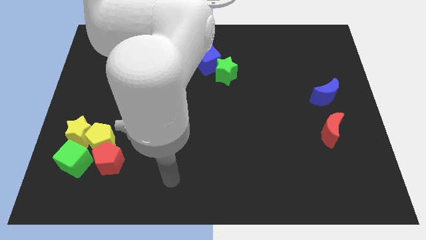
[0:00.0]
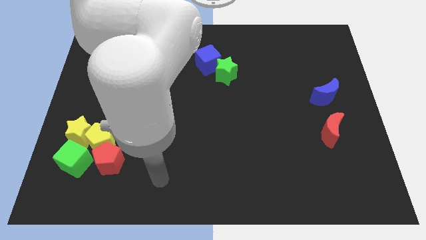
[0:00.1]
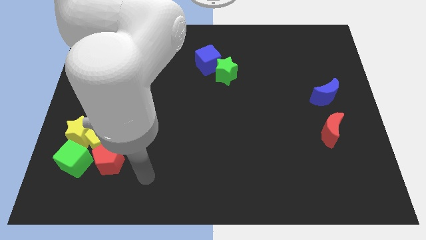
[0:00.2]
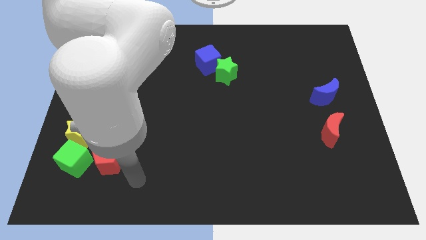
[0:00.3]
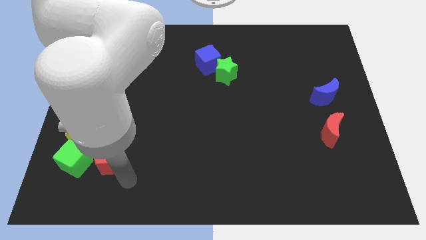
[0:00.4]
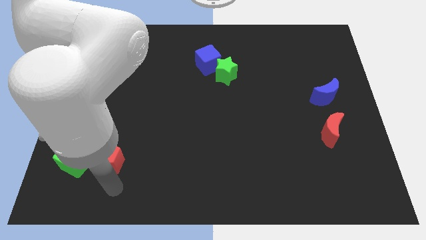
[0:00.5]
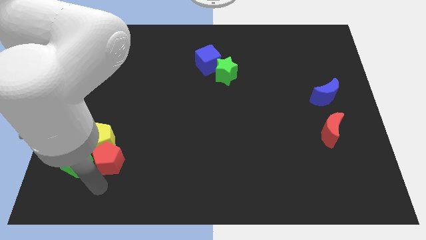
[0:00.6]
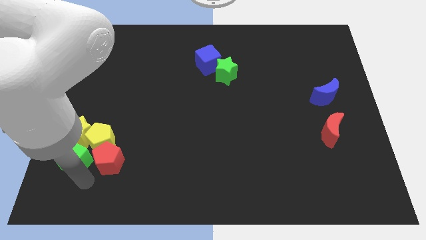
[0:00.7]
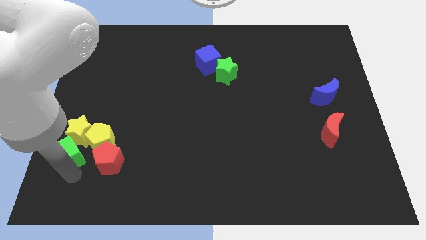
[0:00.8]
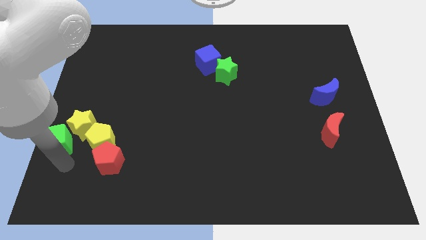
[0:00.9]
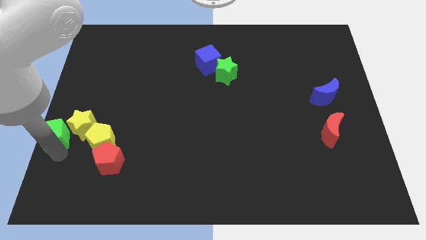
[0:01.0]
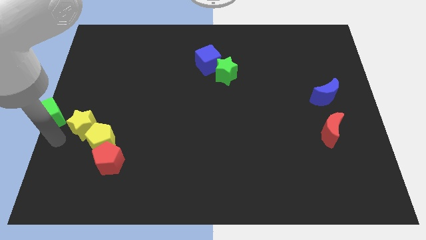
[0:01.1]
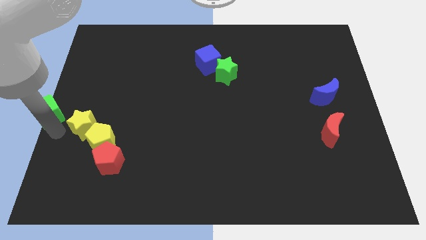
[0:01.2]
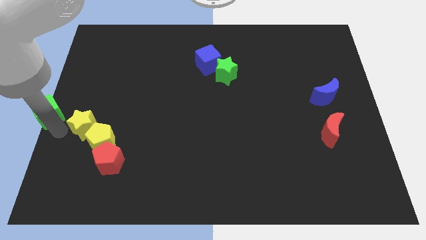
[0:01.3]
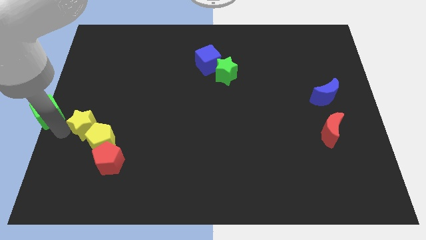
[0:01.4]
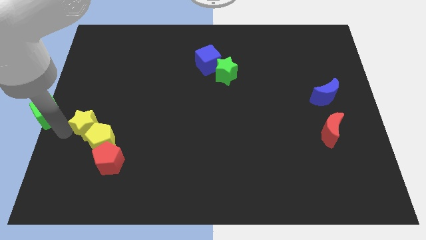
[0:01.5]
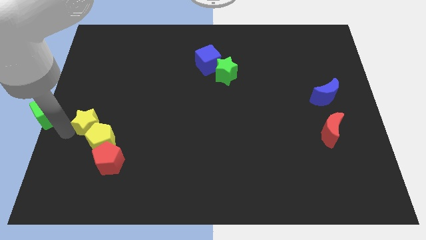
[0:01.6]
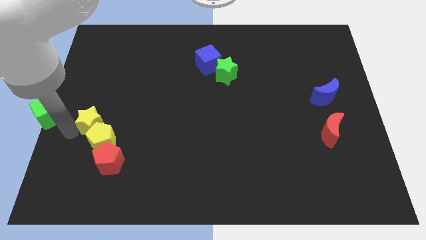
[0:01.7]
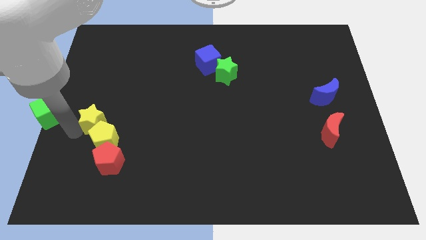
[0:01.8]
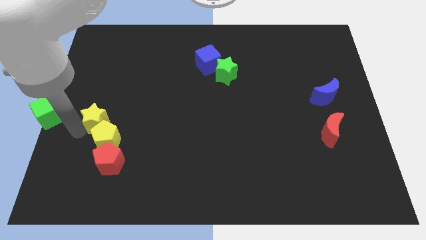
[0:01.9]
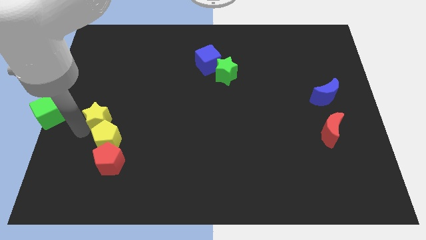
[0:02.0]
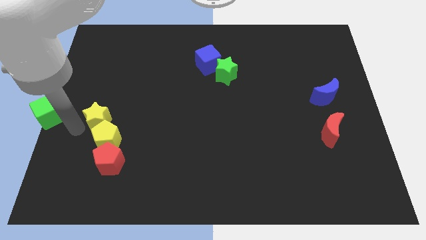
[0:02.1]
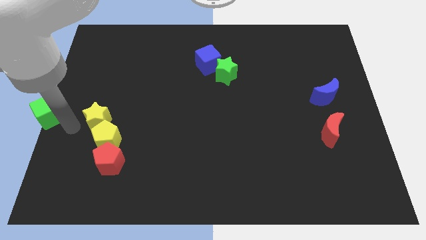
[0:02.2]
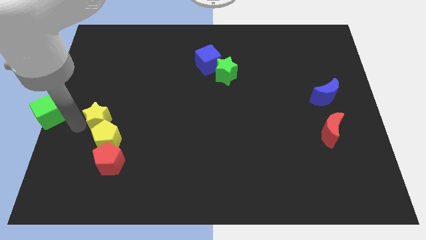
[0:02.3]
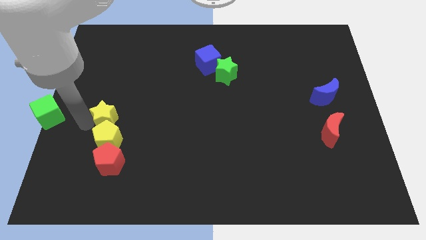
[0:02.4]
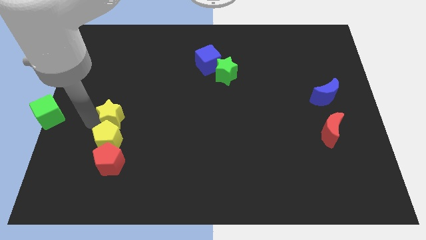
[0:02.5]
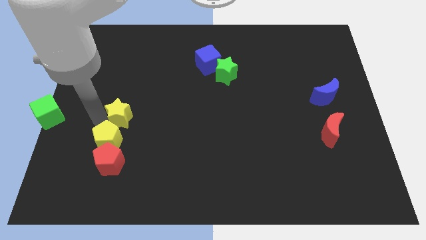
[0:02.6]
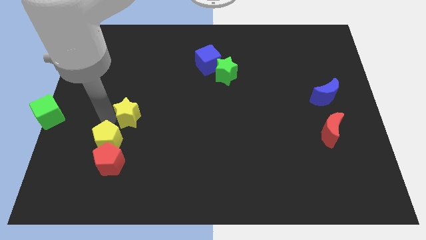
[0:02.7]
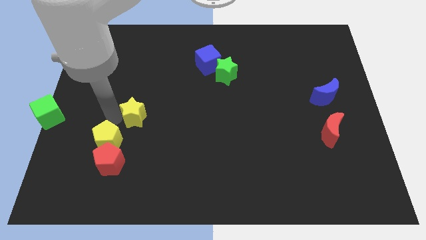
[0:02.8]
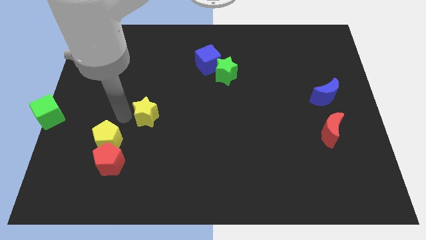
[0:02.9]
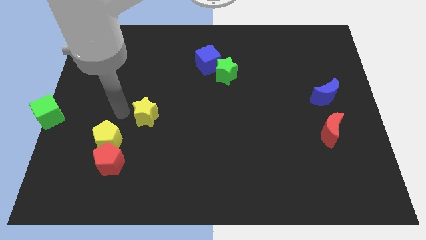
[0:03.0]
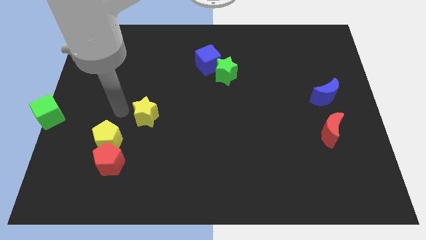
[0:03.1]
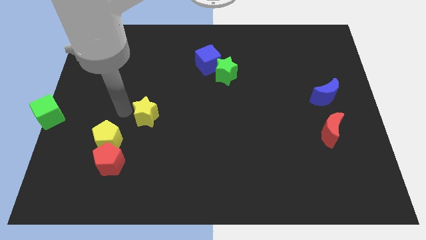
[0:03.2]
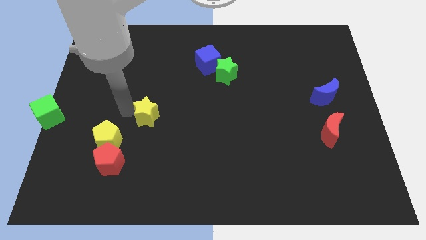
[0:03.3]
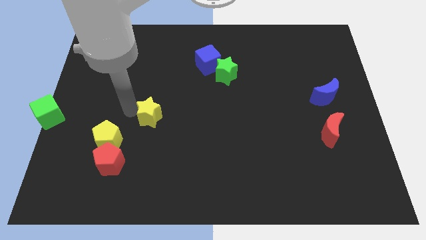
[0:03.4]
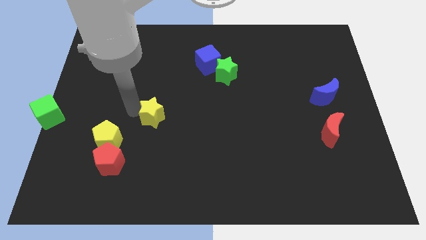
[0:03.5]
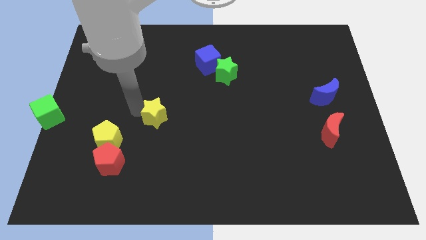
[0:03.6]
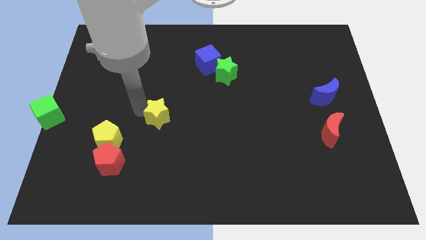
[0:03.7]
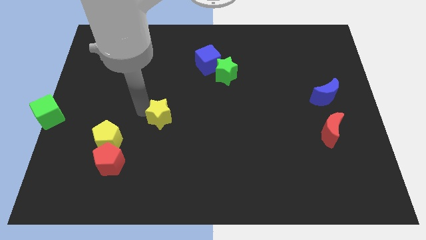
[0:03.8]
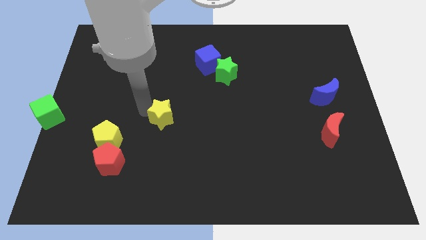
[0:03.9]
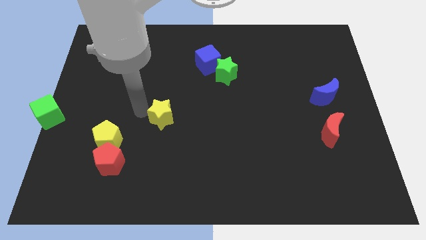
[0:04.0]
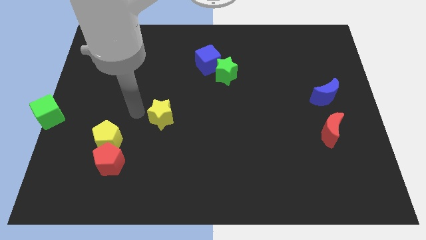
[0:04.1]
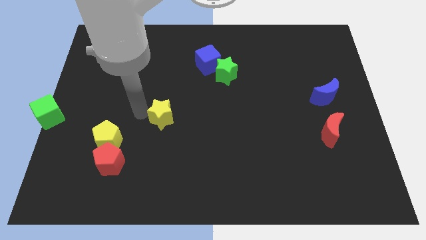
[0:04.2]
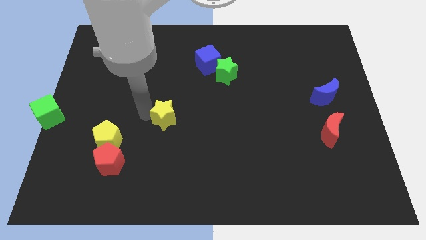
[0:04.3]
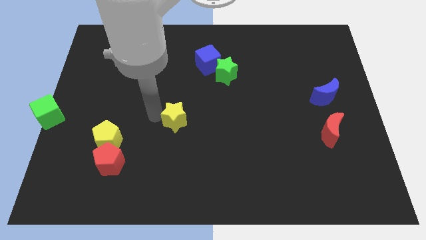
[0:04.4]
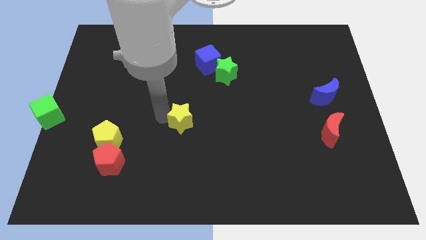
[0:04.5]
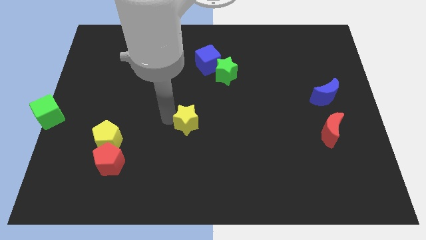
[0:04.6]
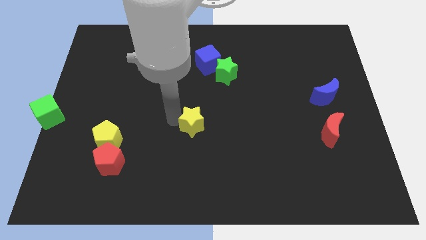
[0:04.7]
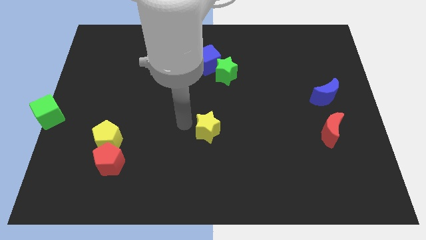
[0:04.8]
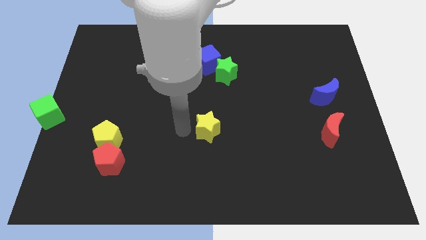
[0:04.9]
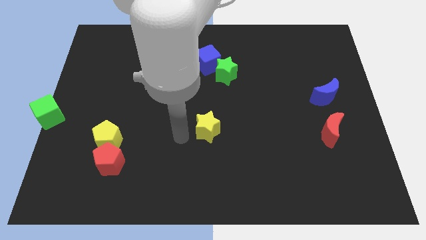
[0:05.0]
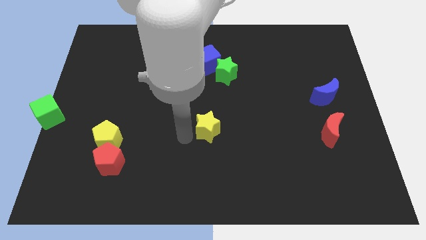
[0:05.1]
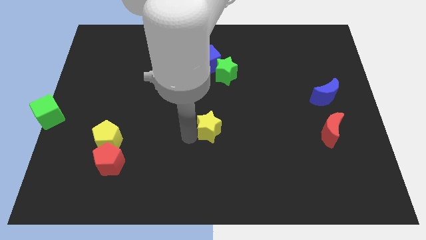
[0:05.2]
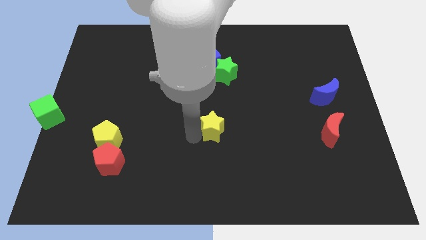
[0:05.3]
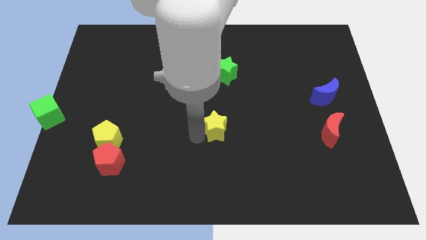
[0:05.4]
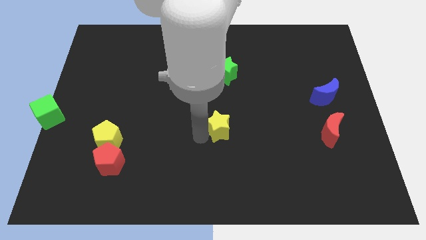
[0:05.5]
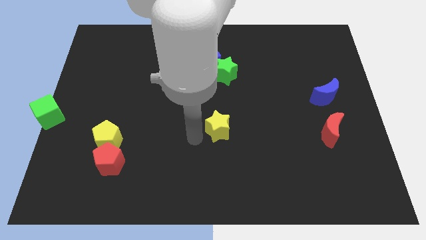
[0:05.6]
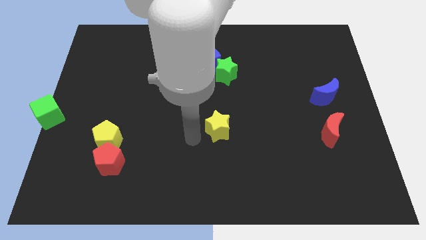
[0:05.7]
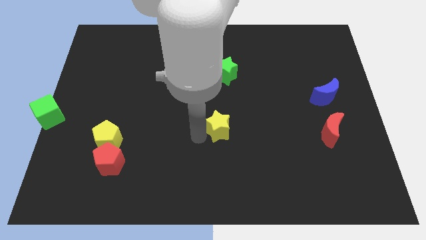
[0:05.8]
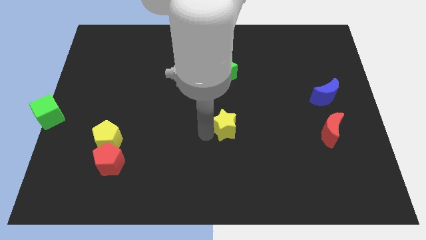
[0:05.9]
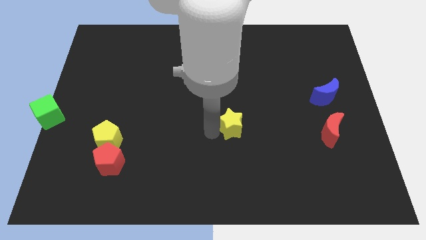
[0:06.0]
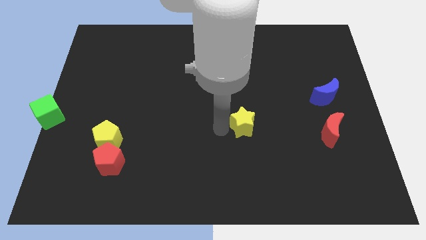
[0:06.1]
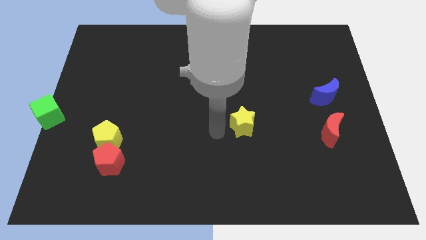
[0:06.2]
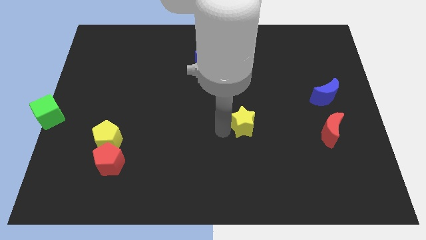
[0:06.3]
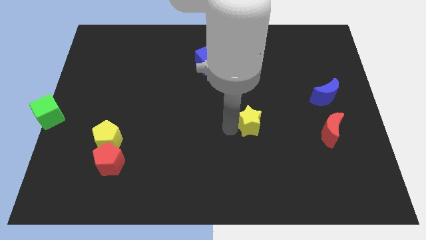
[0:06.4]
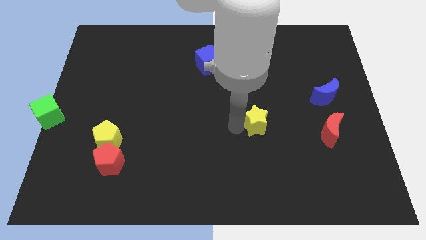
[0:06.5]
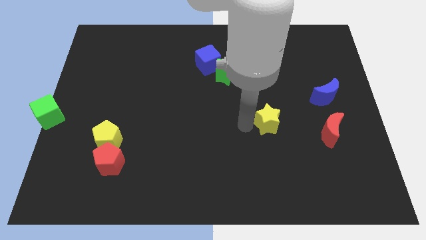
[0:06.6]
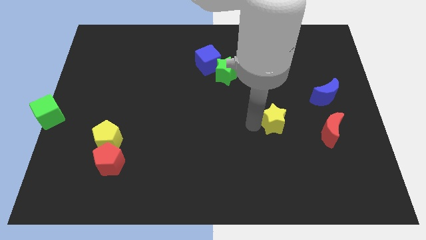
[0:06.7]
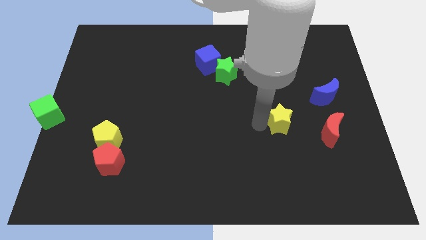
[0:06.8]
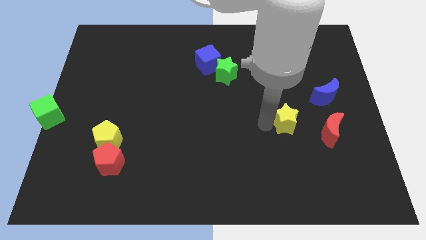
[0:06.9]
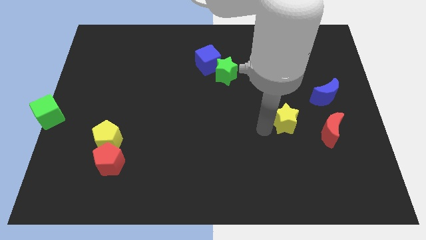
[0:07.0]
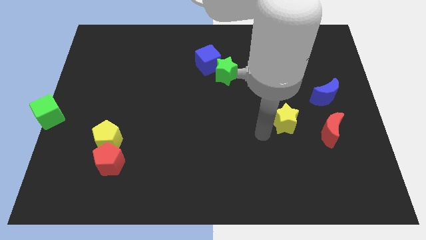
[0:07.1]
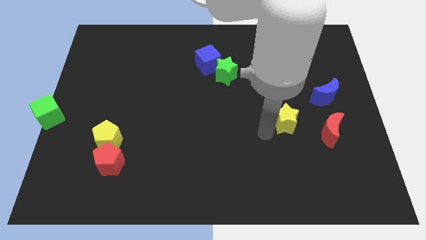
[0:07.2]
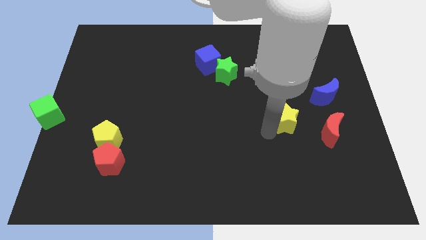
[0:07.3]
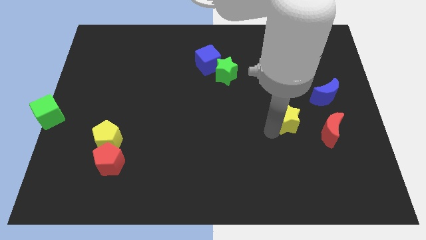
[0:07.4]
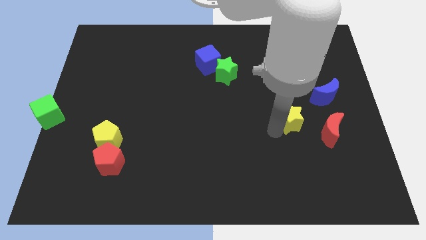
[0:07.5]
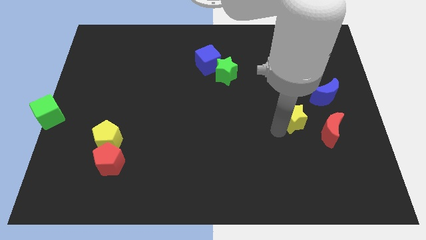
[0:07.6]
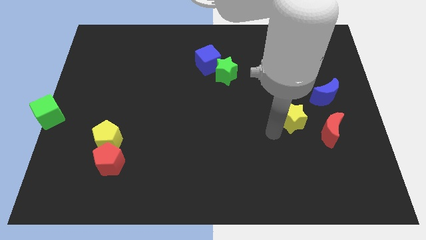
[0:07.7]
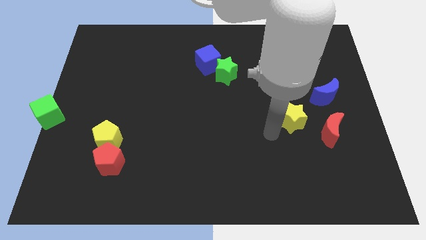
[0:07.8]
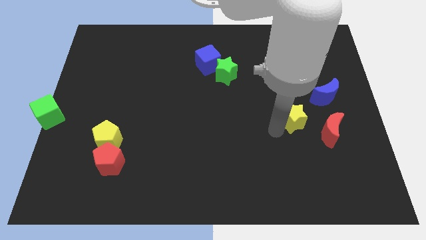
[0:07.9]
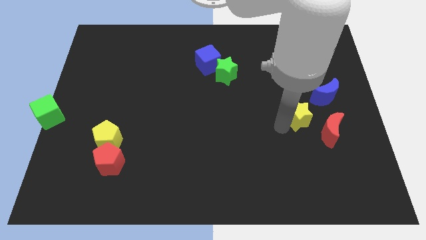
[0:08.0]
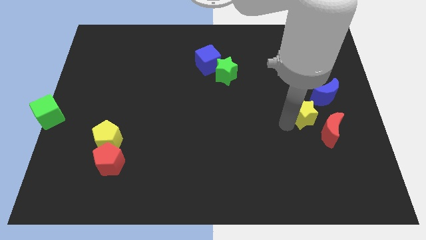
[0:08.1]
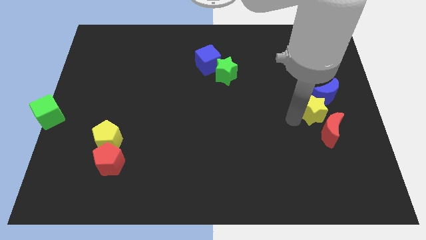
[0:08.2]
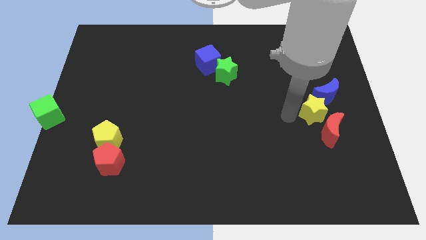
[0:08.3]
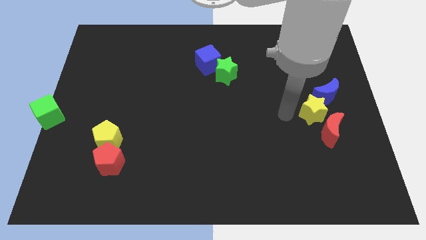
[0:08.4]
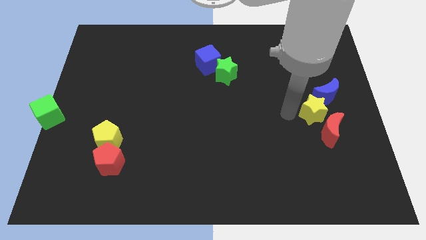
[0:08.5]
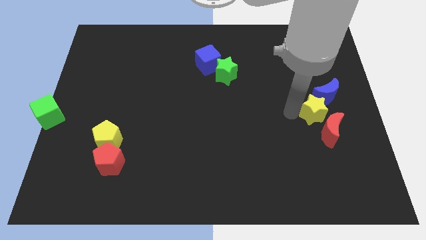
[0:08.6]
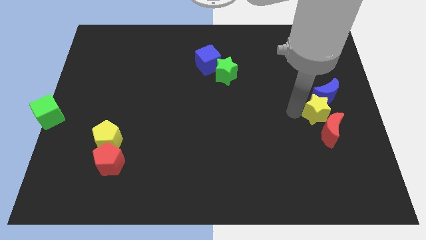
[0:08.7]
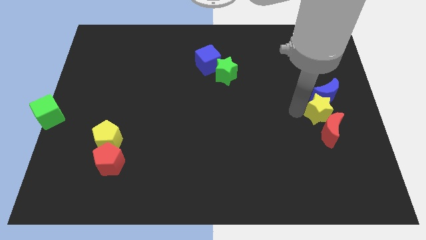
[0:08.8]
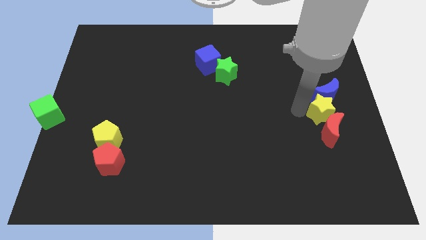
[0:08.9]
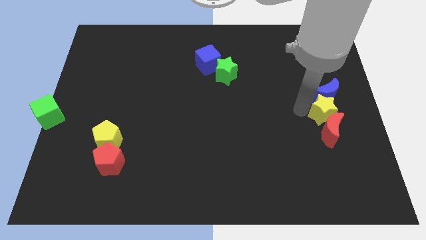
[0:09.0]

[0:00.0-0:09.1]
slide the yellow star to the right side of the board
